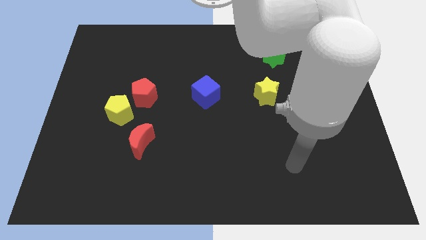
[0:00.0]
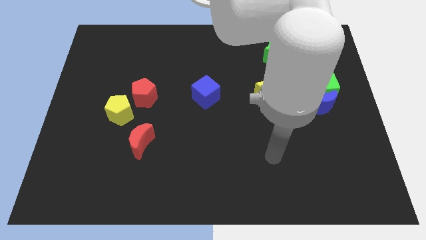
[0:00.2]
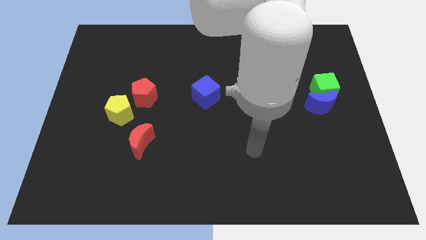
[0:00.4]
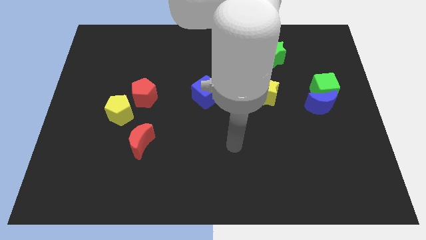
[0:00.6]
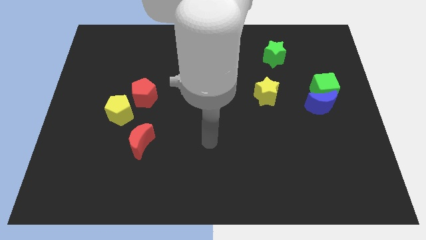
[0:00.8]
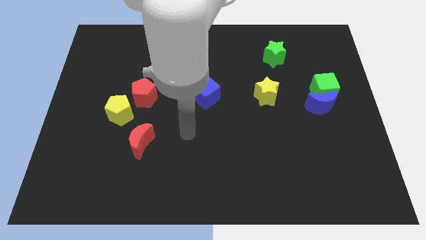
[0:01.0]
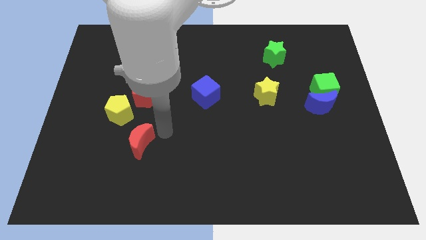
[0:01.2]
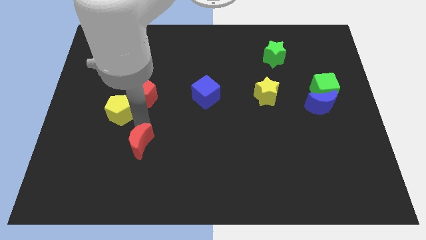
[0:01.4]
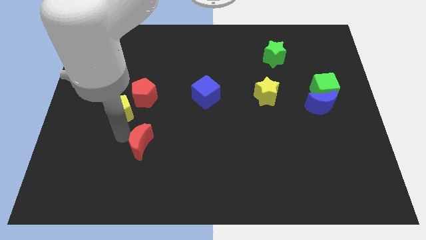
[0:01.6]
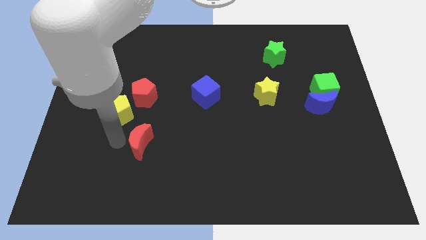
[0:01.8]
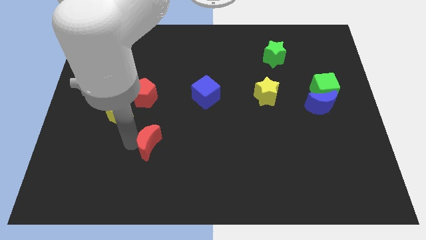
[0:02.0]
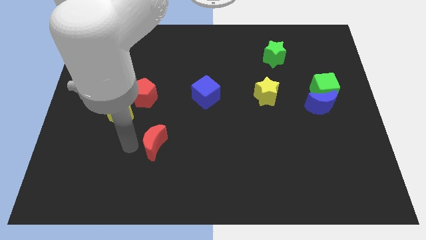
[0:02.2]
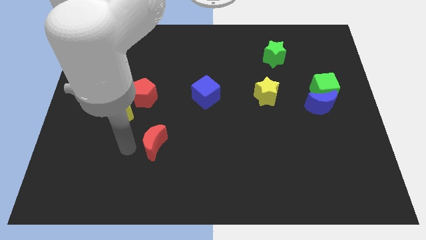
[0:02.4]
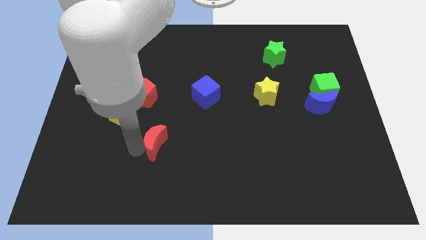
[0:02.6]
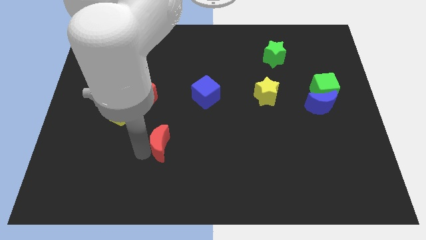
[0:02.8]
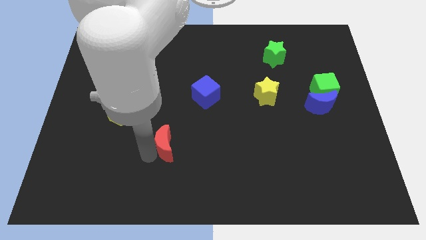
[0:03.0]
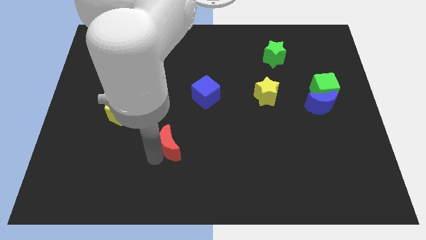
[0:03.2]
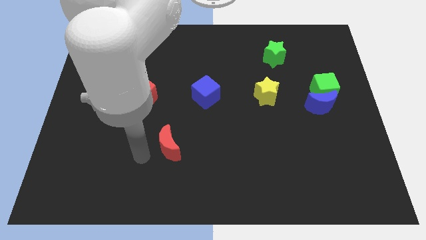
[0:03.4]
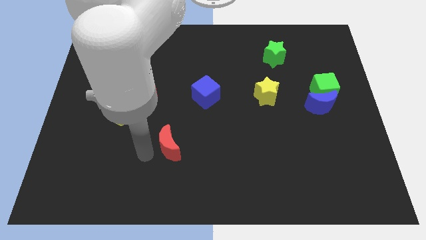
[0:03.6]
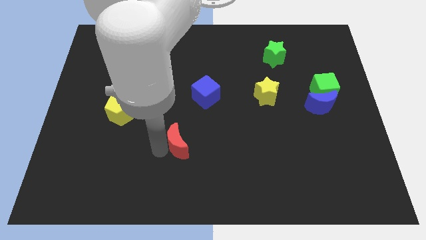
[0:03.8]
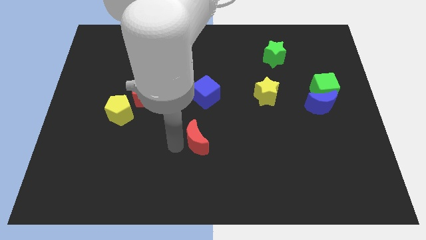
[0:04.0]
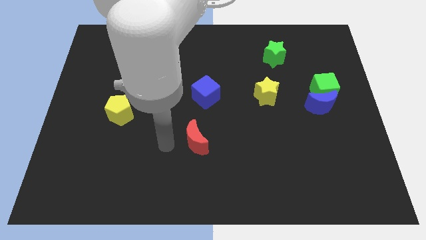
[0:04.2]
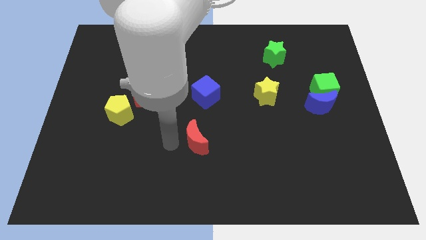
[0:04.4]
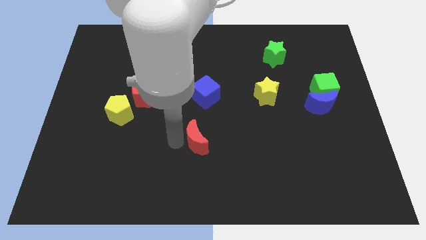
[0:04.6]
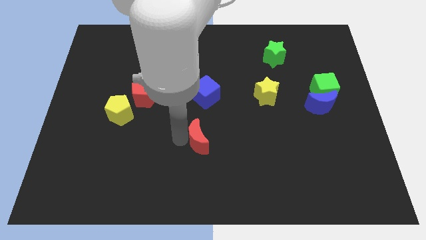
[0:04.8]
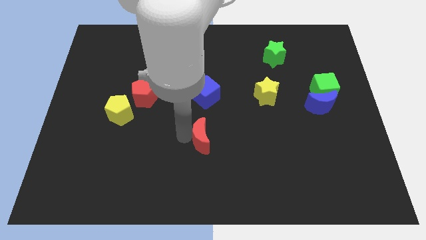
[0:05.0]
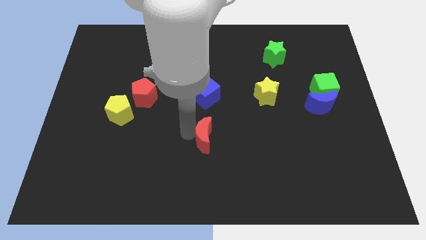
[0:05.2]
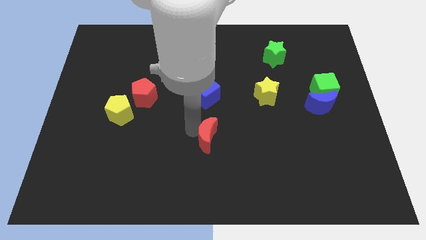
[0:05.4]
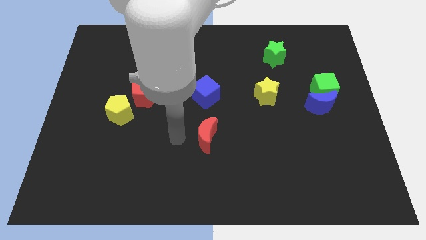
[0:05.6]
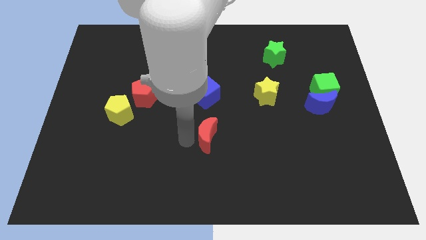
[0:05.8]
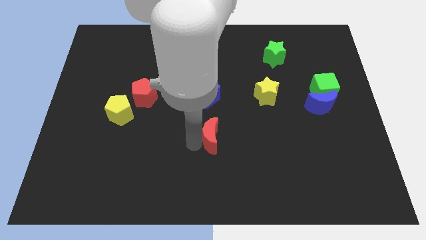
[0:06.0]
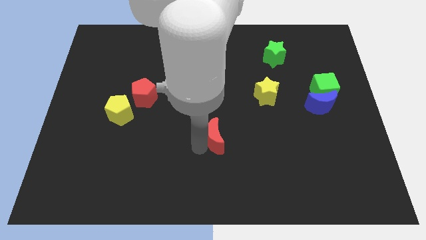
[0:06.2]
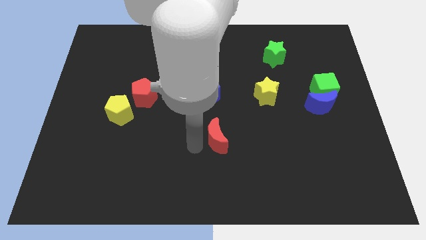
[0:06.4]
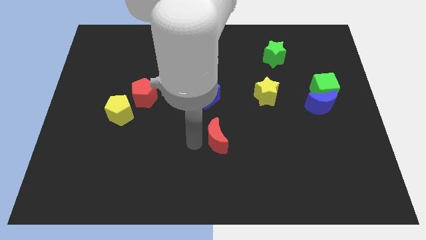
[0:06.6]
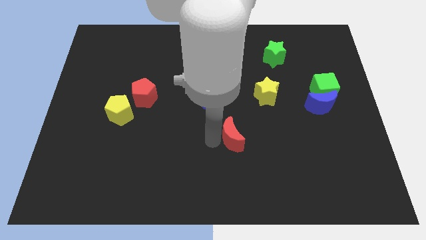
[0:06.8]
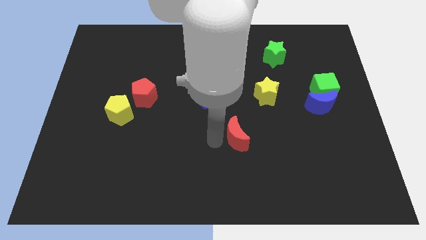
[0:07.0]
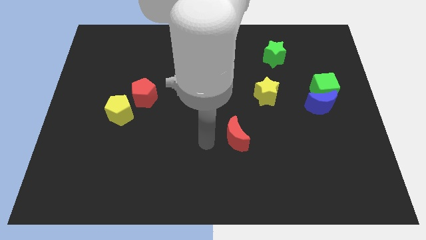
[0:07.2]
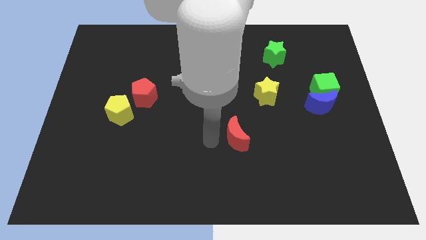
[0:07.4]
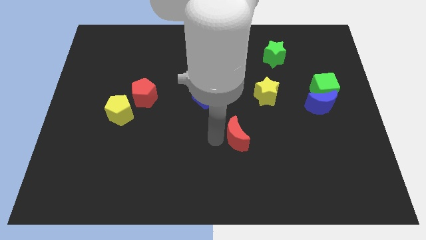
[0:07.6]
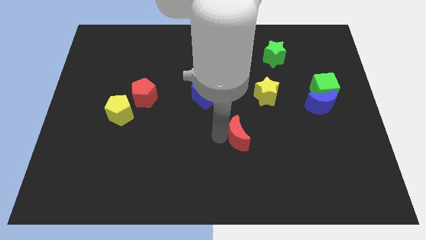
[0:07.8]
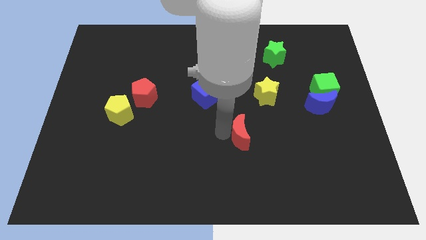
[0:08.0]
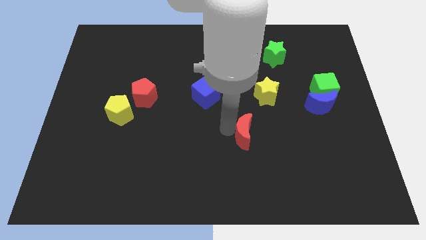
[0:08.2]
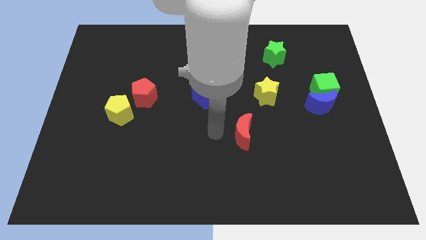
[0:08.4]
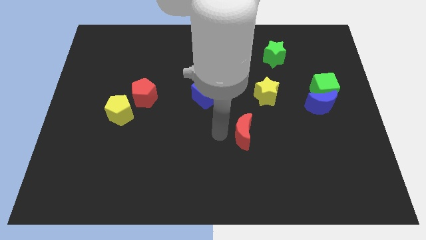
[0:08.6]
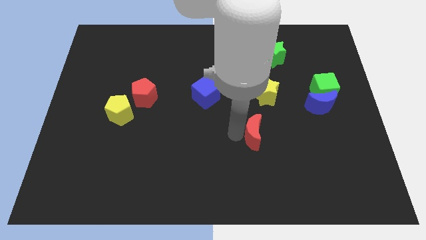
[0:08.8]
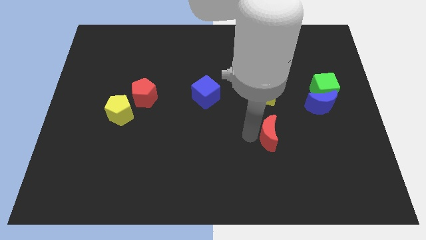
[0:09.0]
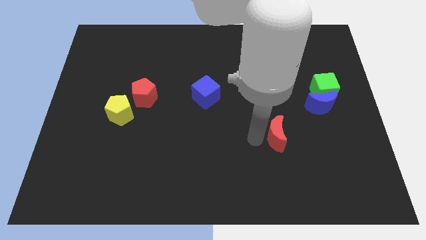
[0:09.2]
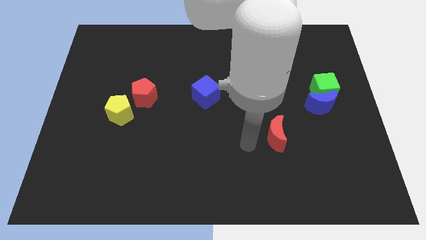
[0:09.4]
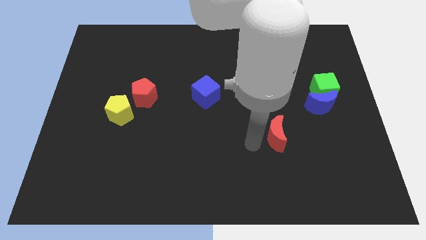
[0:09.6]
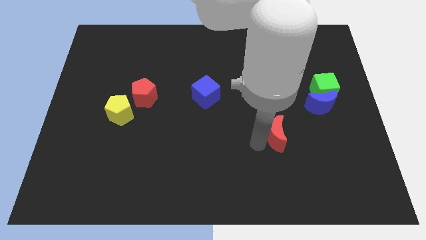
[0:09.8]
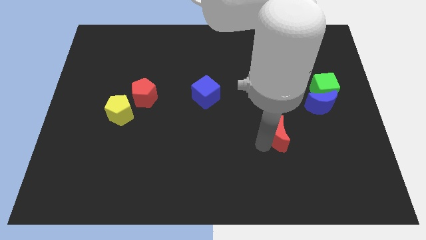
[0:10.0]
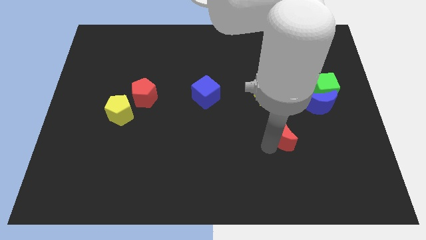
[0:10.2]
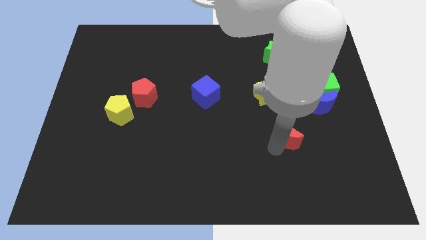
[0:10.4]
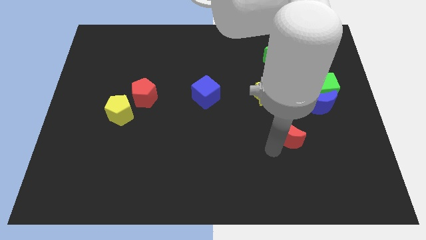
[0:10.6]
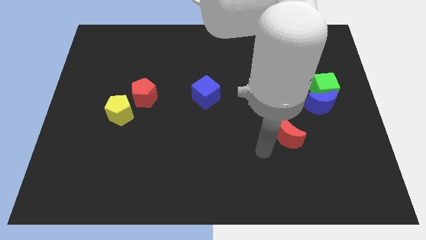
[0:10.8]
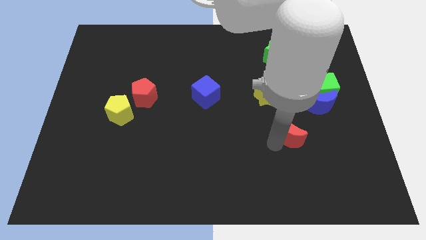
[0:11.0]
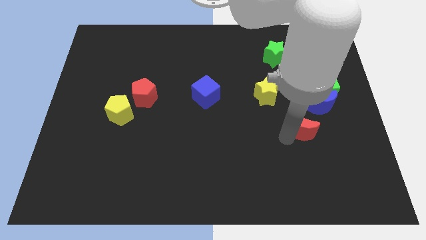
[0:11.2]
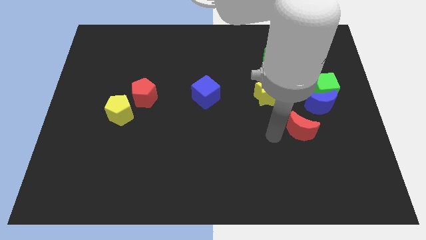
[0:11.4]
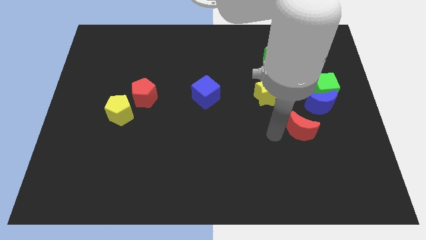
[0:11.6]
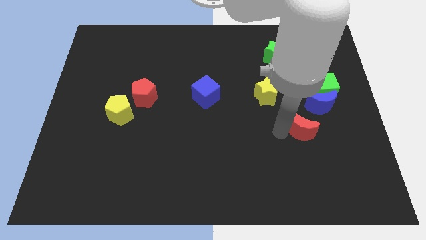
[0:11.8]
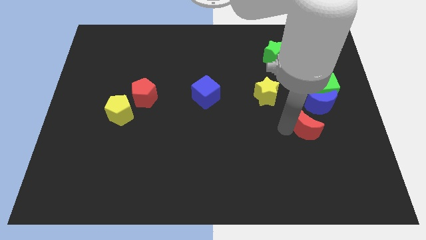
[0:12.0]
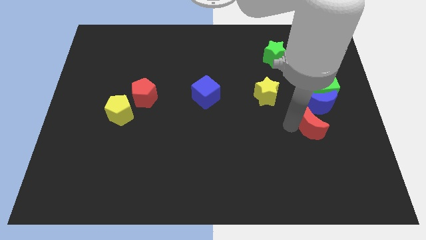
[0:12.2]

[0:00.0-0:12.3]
push the red moon to the bottom of the green cube
